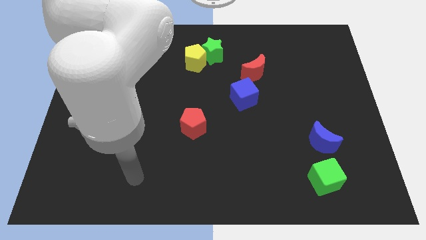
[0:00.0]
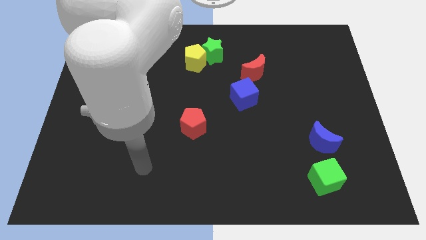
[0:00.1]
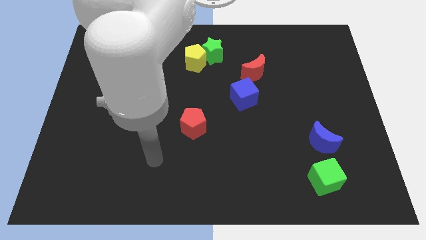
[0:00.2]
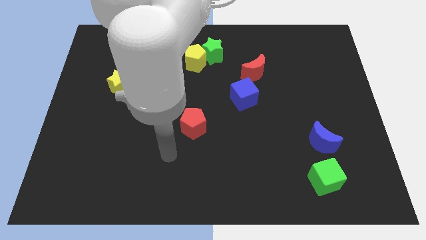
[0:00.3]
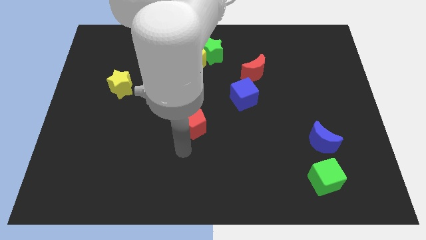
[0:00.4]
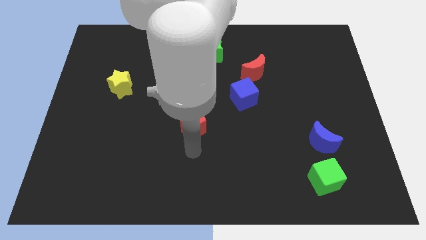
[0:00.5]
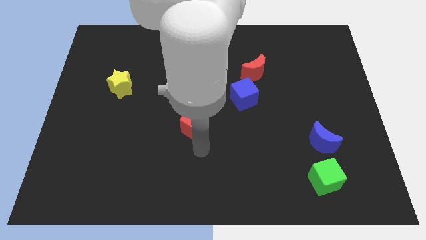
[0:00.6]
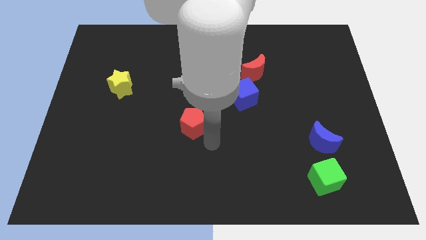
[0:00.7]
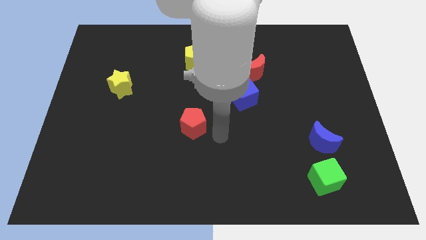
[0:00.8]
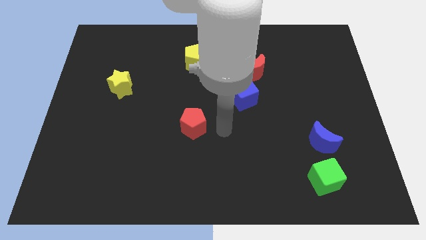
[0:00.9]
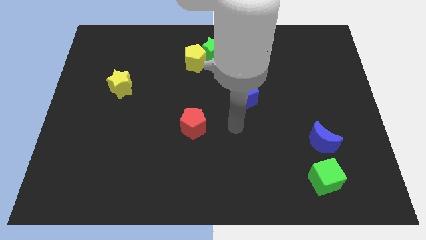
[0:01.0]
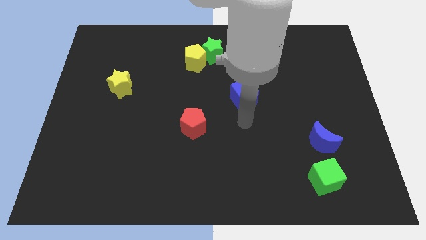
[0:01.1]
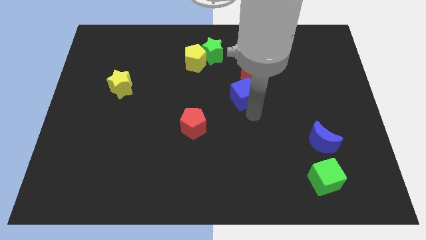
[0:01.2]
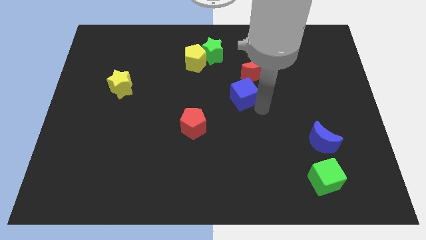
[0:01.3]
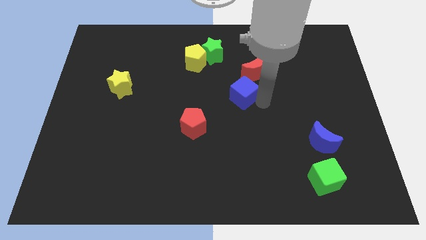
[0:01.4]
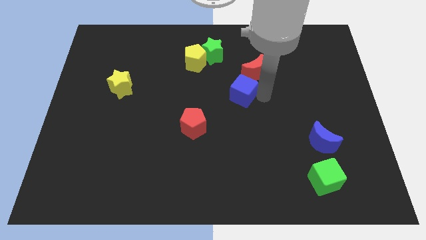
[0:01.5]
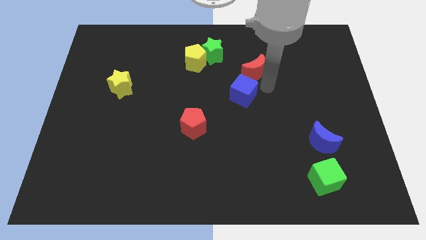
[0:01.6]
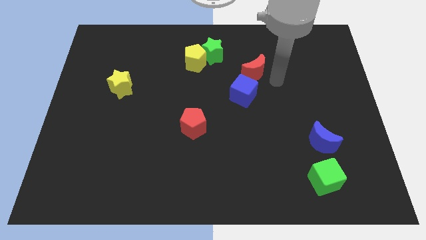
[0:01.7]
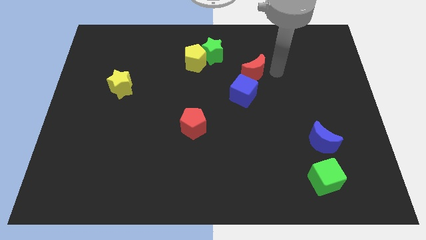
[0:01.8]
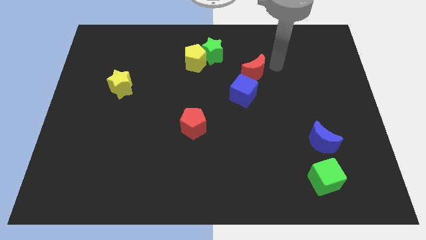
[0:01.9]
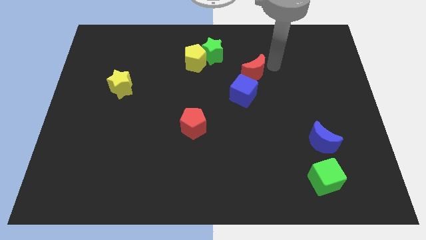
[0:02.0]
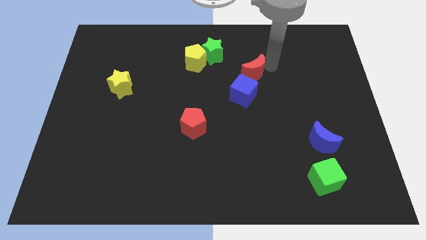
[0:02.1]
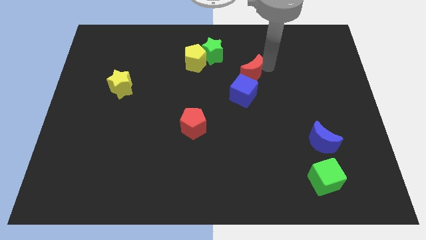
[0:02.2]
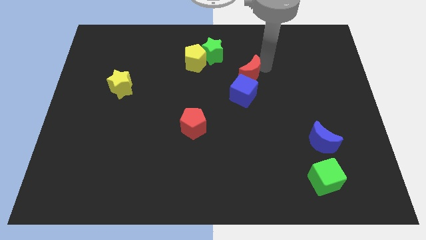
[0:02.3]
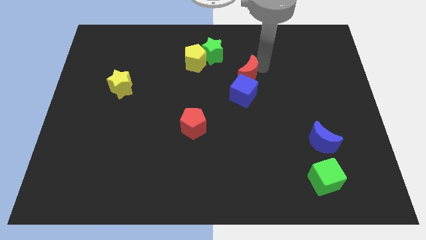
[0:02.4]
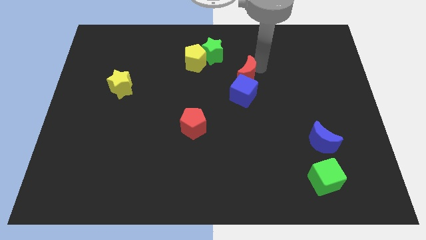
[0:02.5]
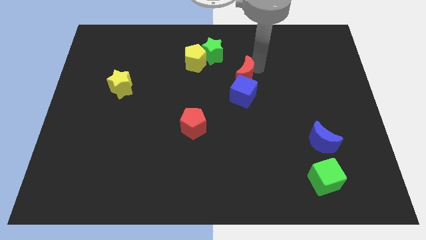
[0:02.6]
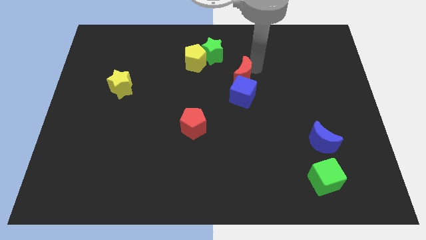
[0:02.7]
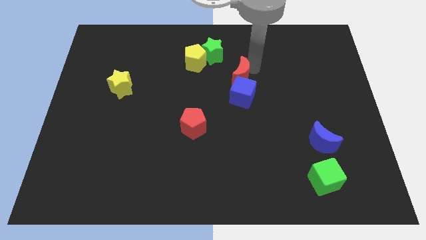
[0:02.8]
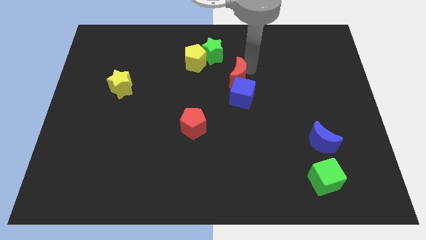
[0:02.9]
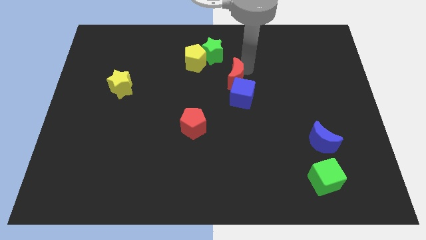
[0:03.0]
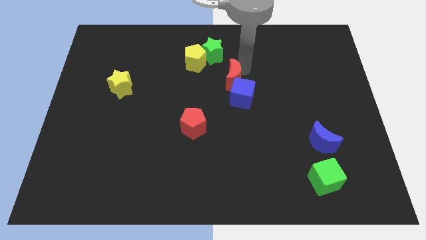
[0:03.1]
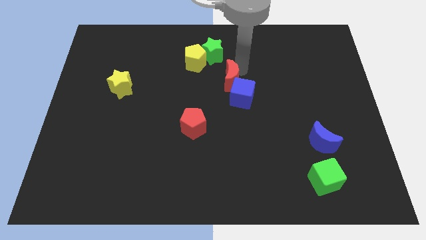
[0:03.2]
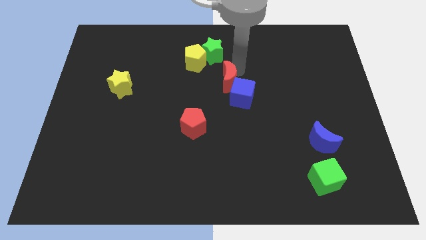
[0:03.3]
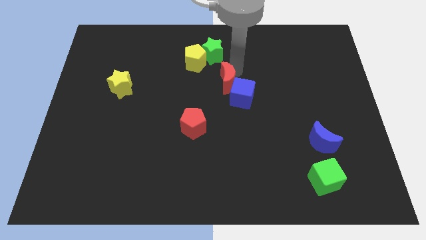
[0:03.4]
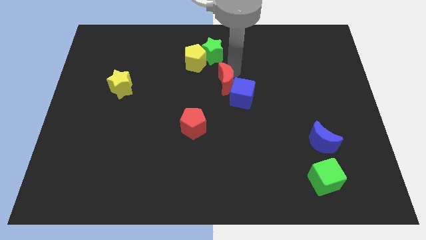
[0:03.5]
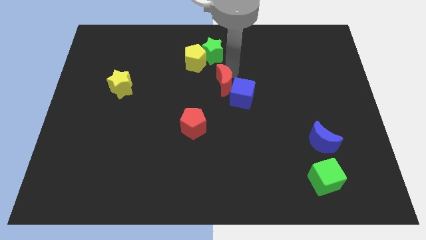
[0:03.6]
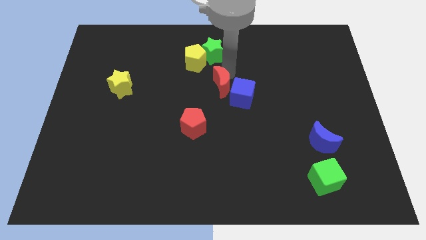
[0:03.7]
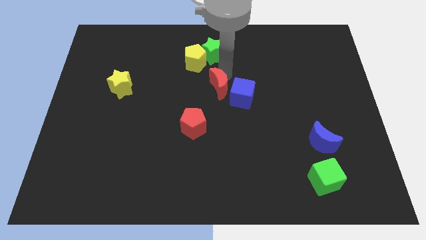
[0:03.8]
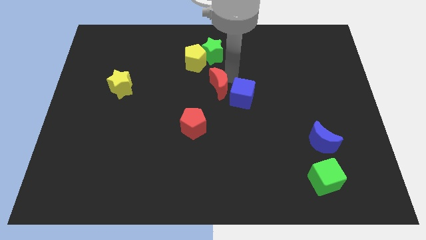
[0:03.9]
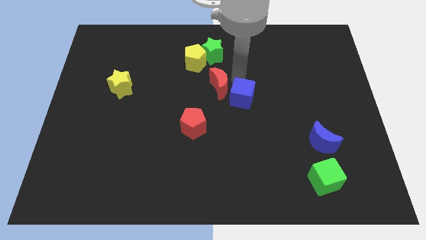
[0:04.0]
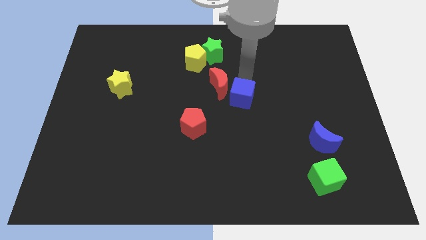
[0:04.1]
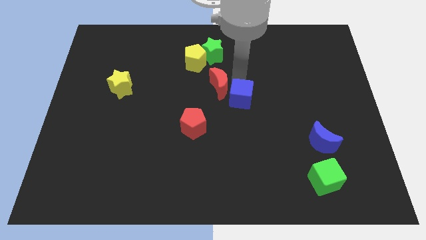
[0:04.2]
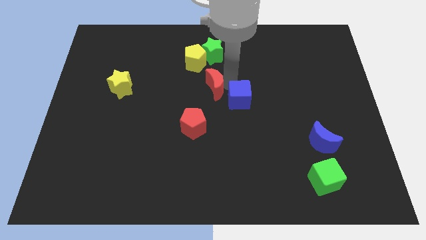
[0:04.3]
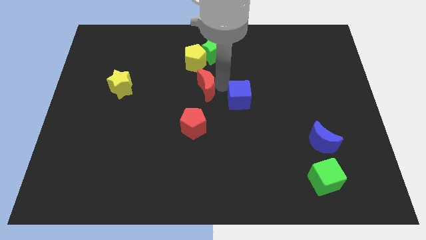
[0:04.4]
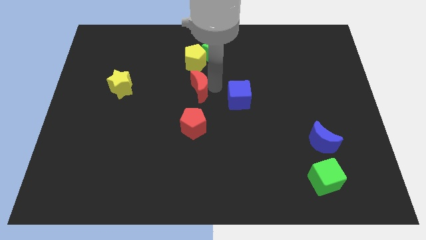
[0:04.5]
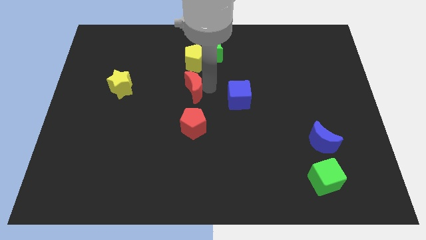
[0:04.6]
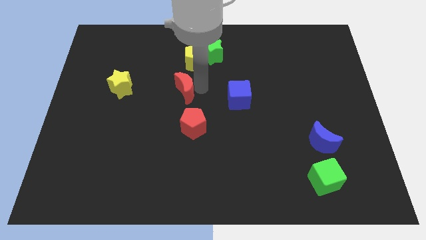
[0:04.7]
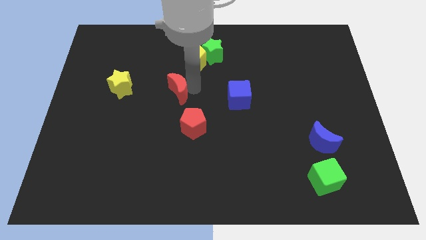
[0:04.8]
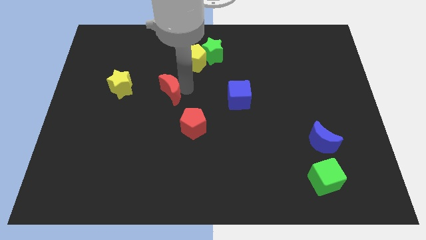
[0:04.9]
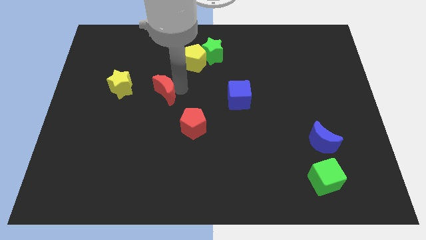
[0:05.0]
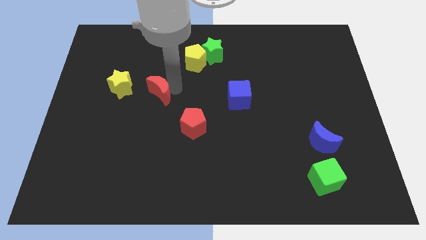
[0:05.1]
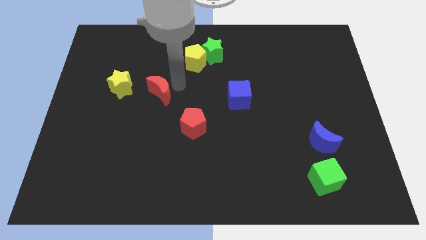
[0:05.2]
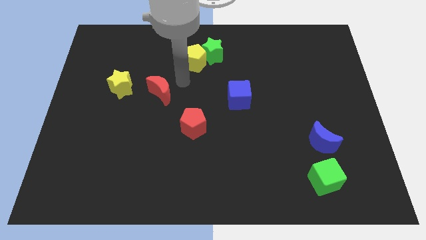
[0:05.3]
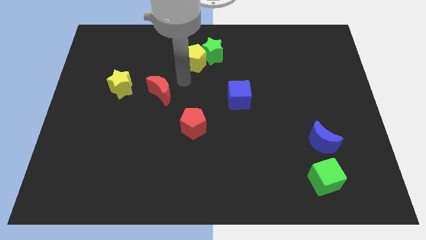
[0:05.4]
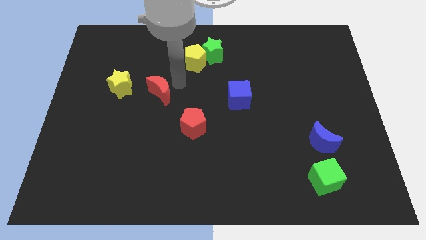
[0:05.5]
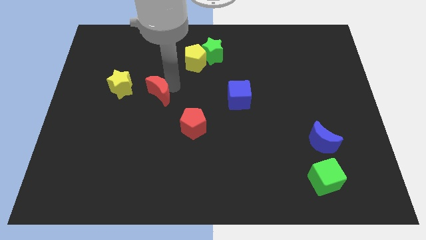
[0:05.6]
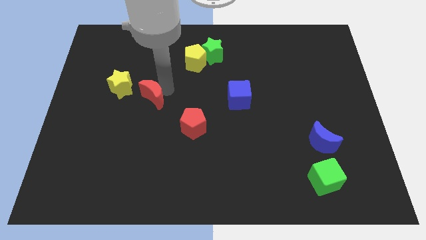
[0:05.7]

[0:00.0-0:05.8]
put the red moon diagonally down and to the right of the yellow star

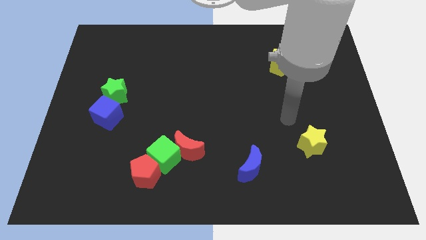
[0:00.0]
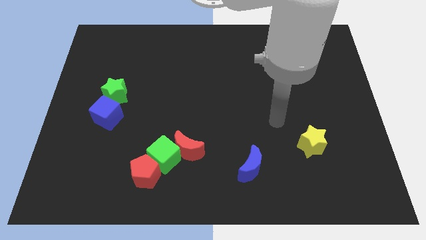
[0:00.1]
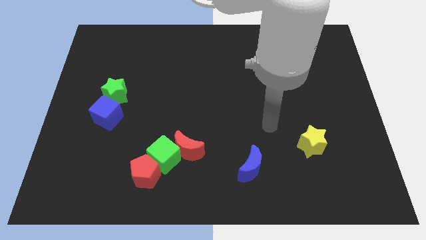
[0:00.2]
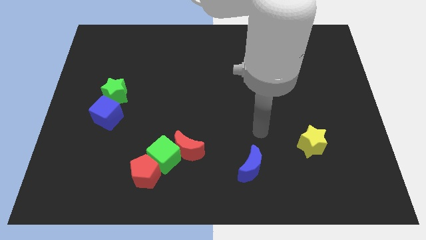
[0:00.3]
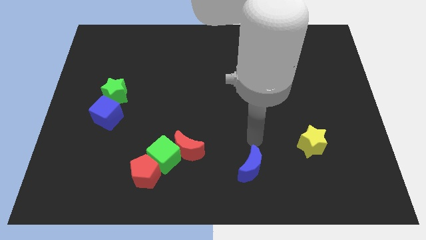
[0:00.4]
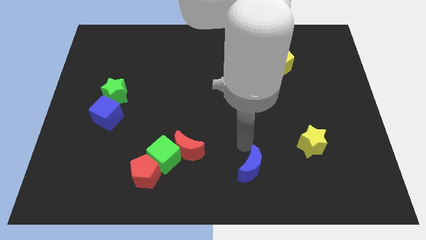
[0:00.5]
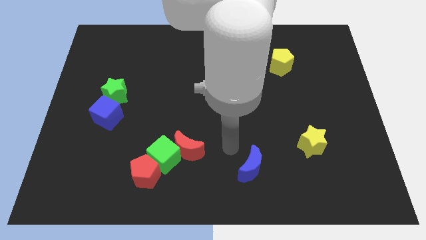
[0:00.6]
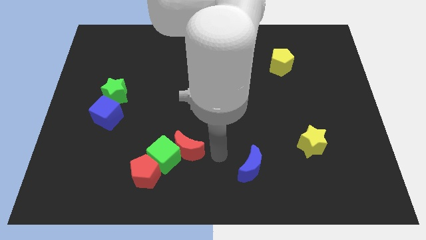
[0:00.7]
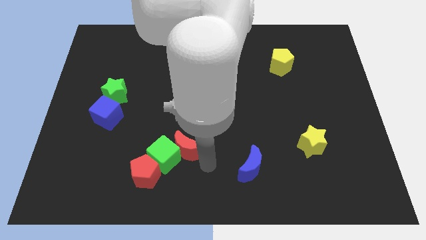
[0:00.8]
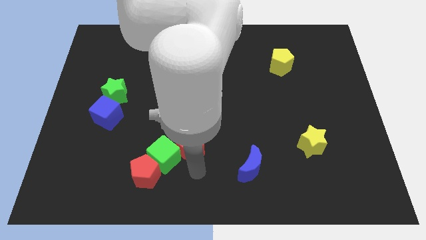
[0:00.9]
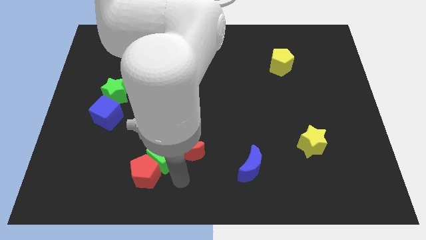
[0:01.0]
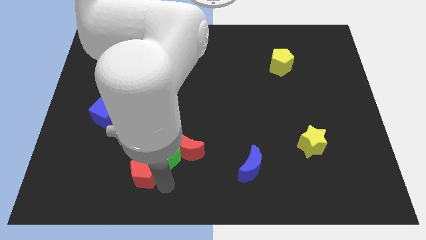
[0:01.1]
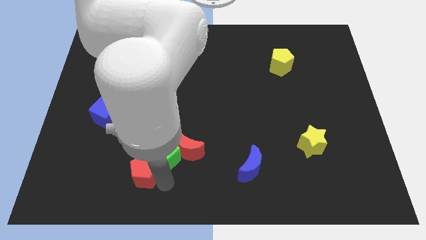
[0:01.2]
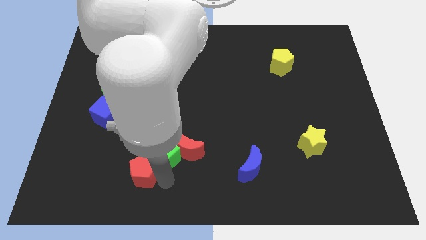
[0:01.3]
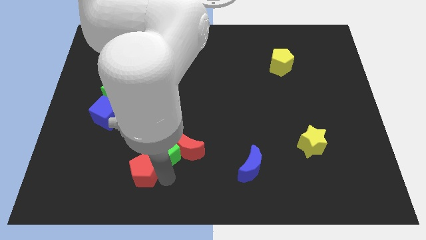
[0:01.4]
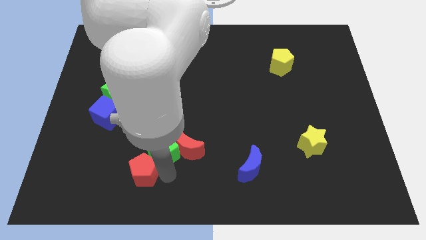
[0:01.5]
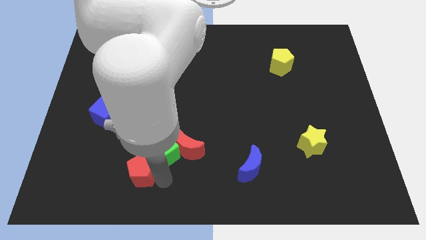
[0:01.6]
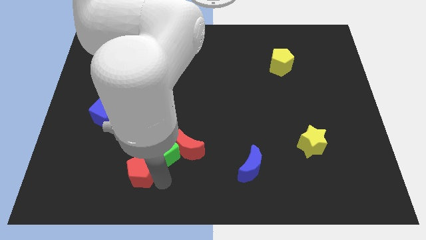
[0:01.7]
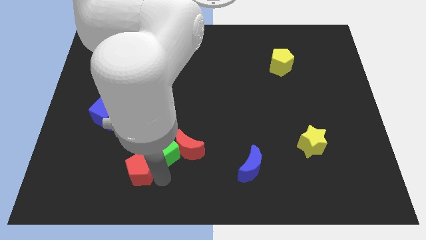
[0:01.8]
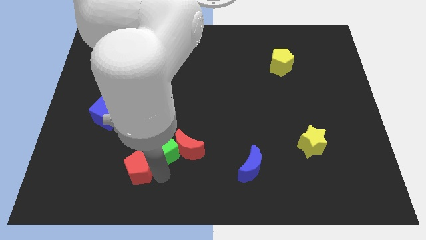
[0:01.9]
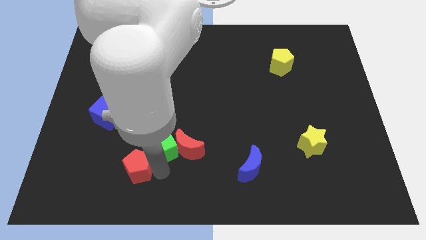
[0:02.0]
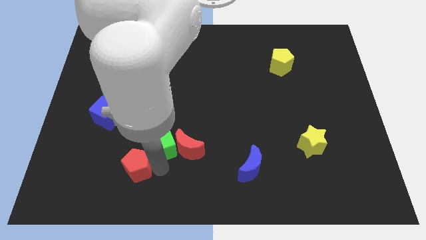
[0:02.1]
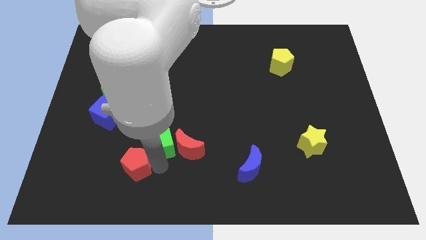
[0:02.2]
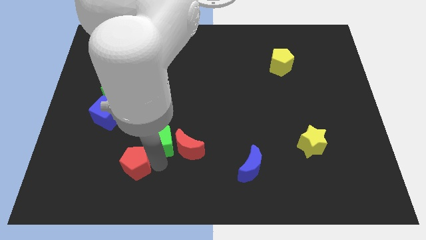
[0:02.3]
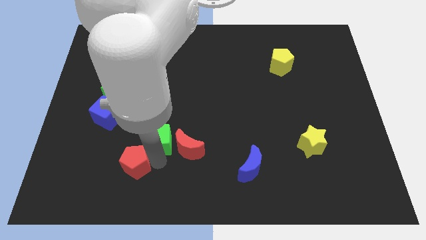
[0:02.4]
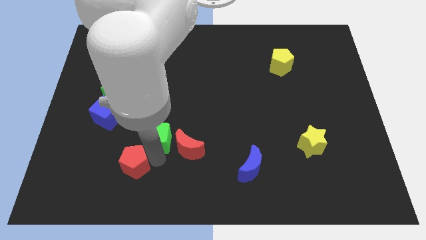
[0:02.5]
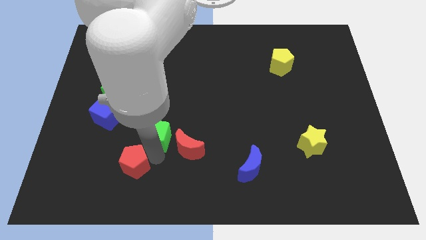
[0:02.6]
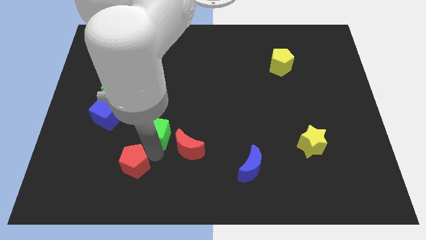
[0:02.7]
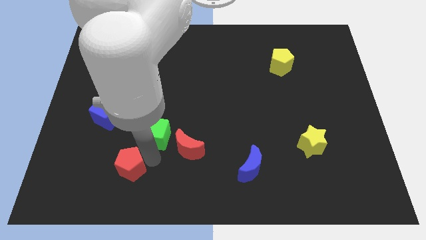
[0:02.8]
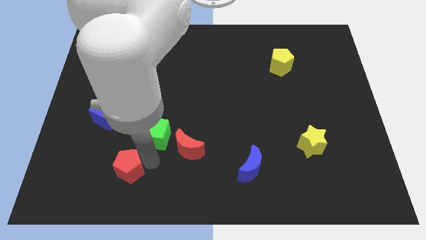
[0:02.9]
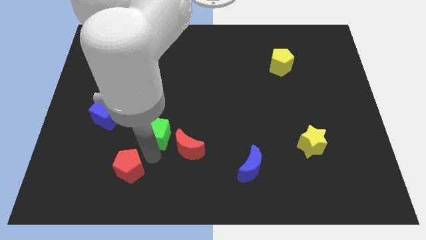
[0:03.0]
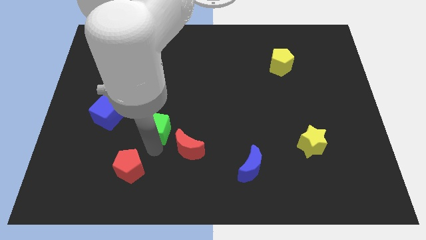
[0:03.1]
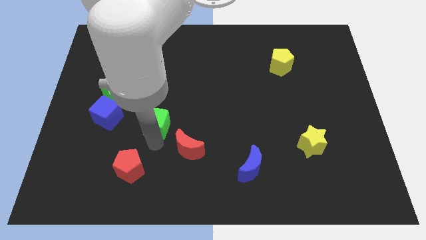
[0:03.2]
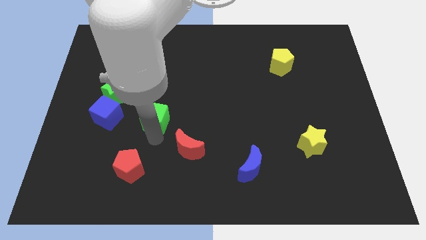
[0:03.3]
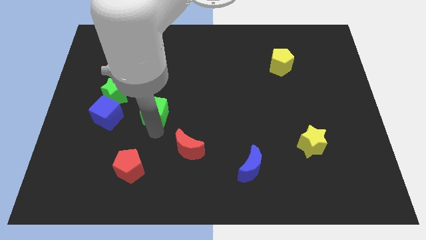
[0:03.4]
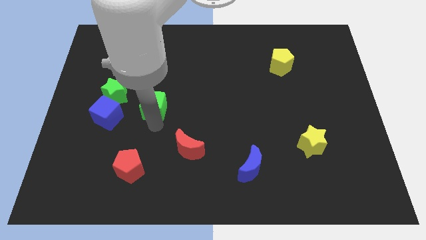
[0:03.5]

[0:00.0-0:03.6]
put the green cube just right of the green star
